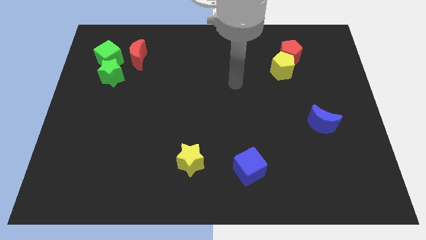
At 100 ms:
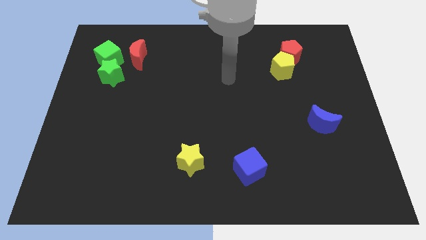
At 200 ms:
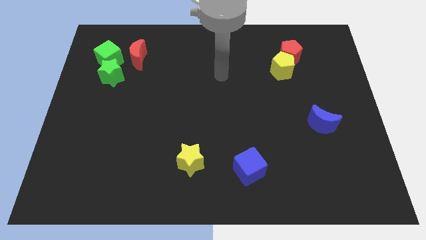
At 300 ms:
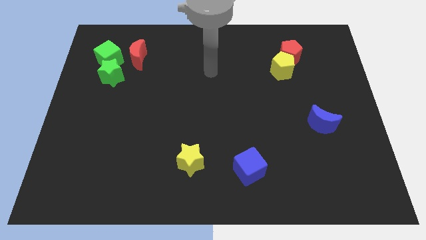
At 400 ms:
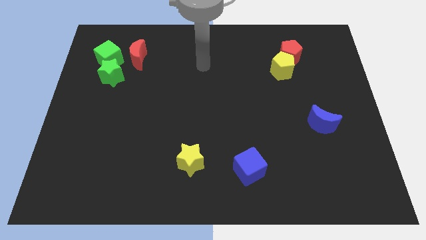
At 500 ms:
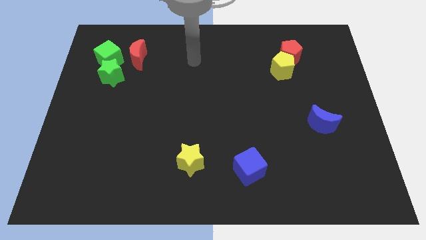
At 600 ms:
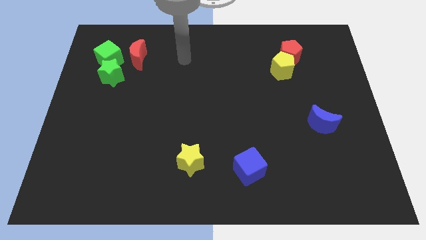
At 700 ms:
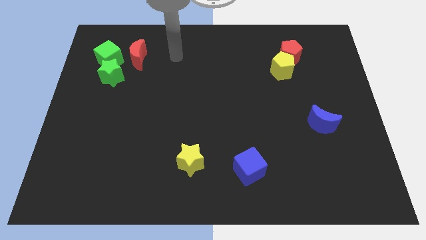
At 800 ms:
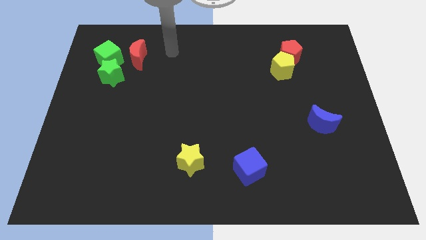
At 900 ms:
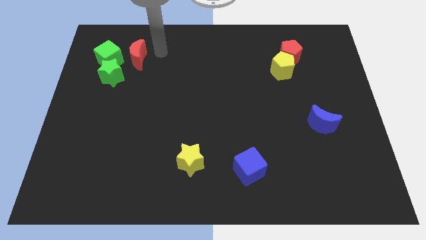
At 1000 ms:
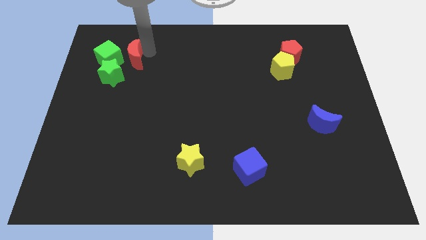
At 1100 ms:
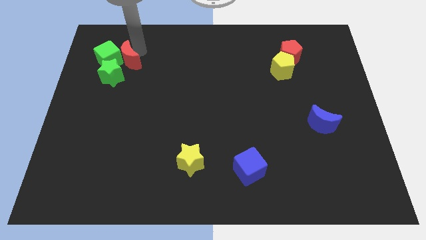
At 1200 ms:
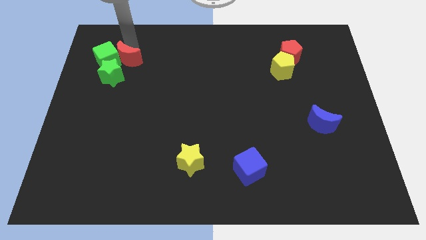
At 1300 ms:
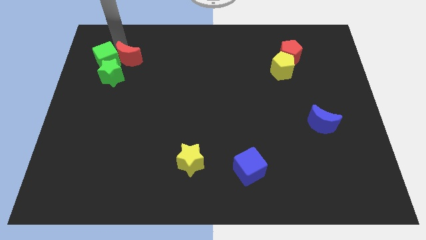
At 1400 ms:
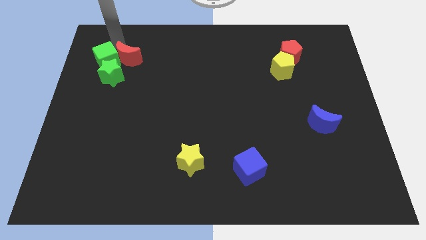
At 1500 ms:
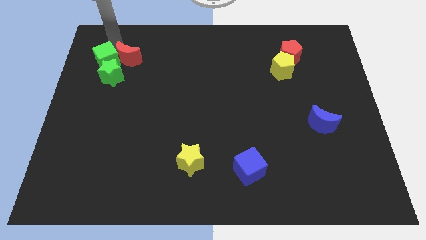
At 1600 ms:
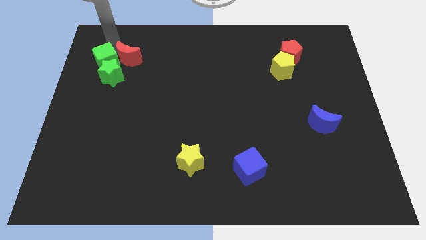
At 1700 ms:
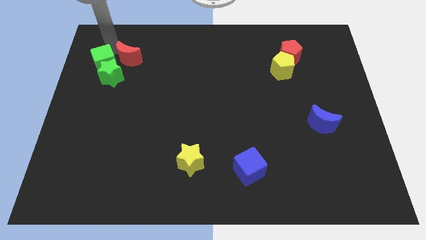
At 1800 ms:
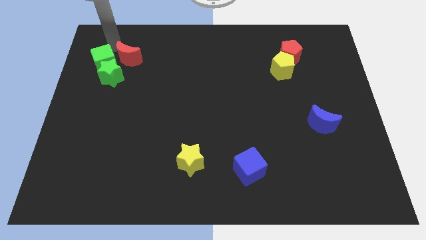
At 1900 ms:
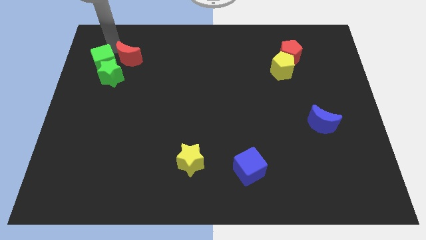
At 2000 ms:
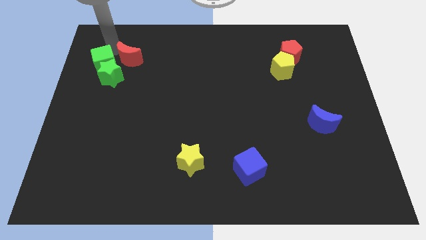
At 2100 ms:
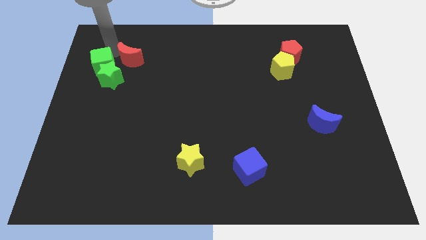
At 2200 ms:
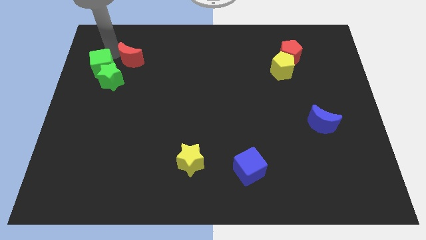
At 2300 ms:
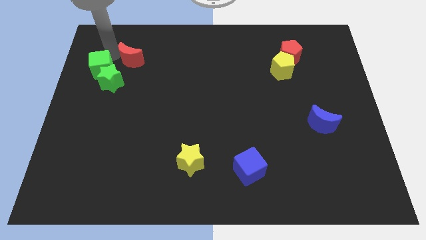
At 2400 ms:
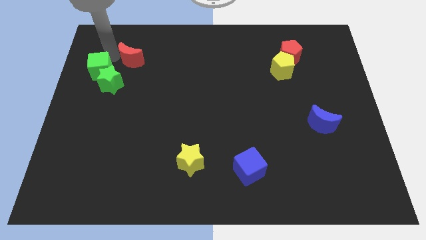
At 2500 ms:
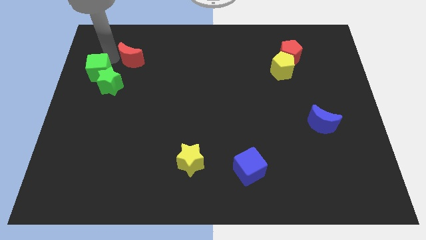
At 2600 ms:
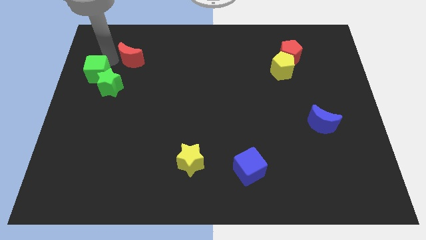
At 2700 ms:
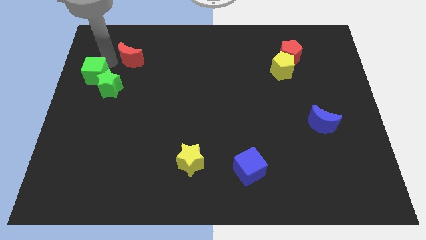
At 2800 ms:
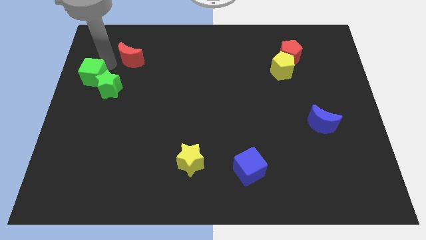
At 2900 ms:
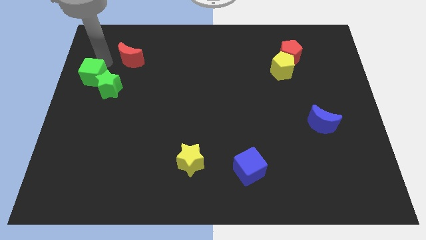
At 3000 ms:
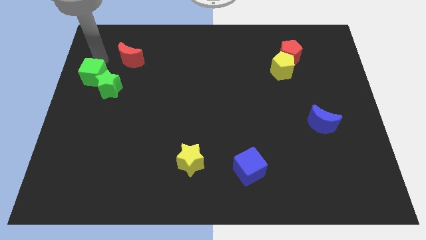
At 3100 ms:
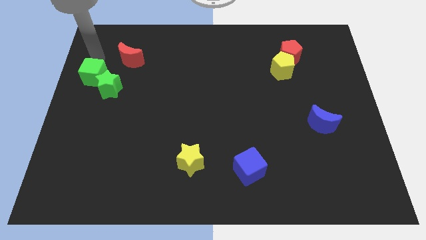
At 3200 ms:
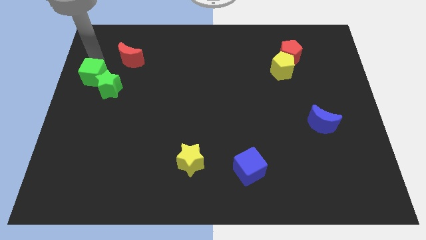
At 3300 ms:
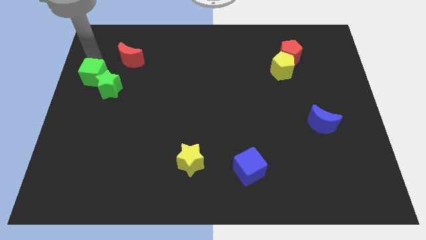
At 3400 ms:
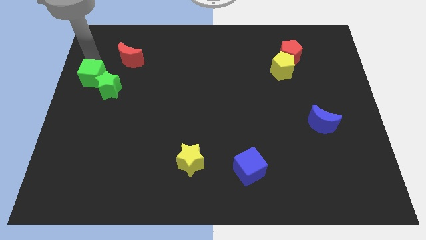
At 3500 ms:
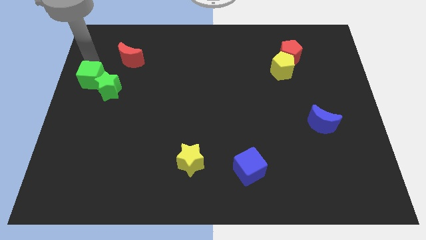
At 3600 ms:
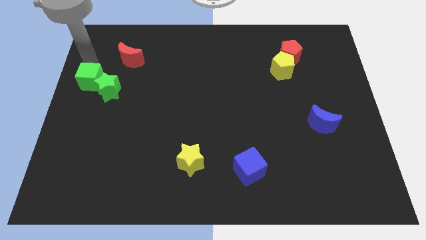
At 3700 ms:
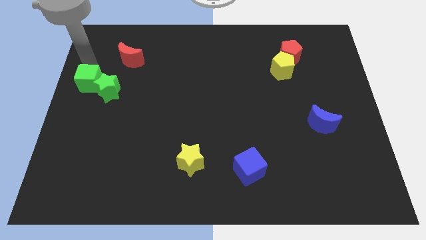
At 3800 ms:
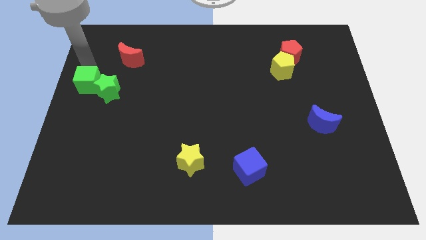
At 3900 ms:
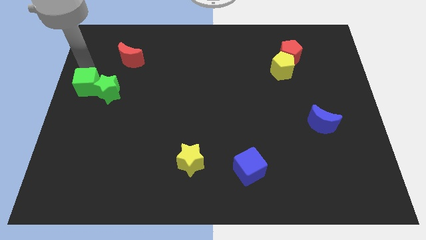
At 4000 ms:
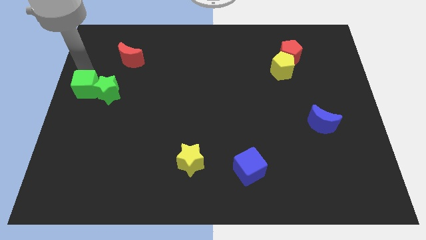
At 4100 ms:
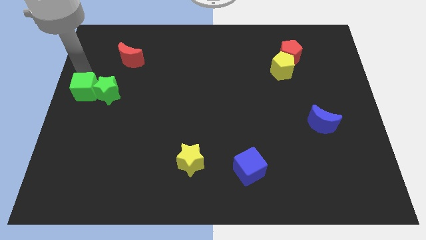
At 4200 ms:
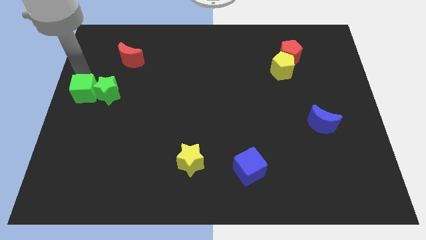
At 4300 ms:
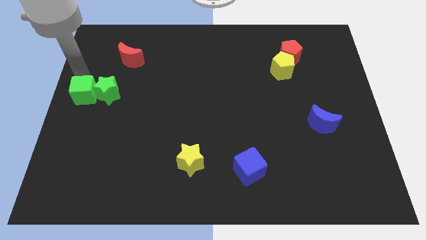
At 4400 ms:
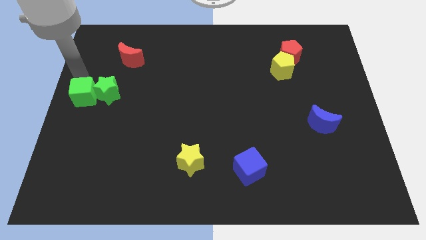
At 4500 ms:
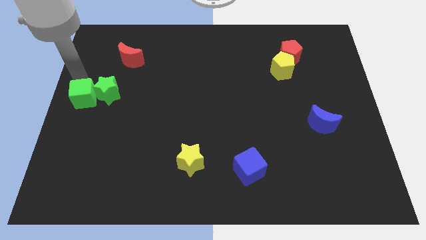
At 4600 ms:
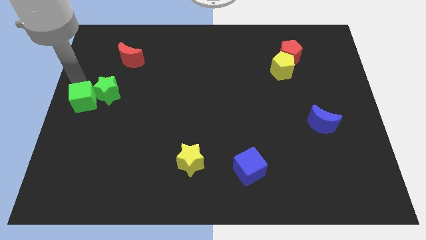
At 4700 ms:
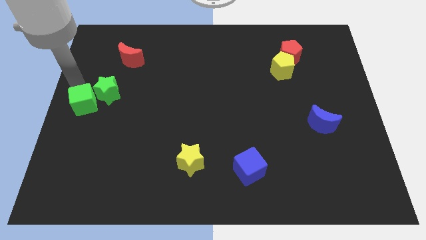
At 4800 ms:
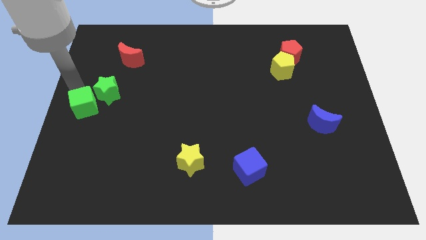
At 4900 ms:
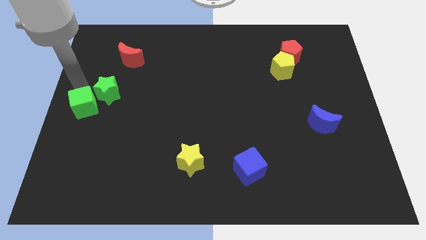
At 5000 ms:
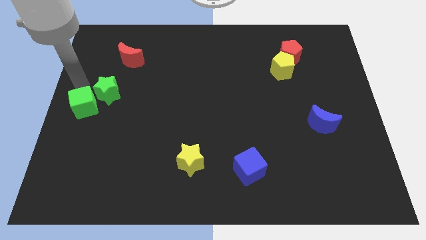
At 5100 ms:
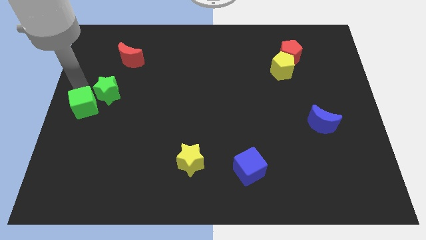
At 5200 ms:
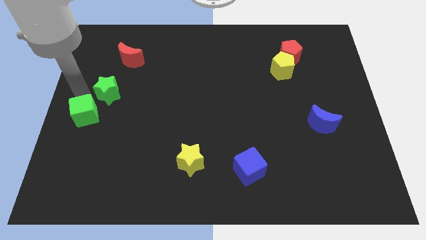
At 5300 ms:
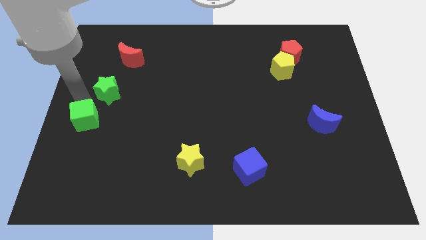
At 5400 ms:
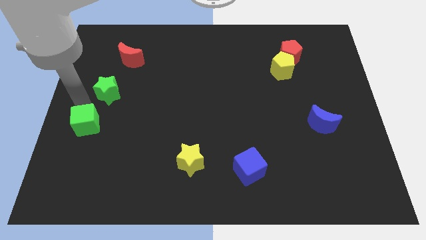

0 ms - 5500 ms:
slide the green cube down

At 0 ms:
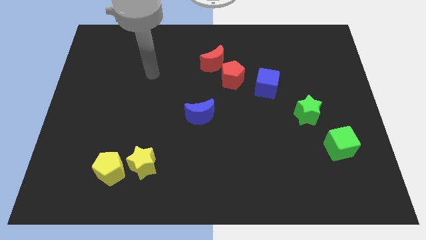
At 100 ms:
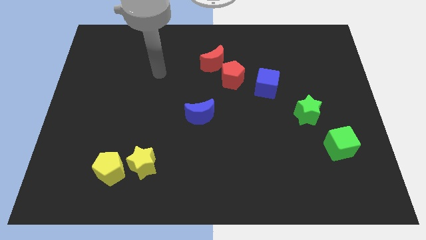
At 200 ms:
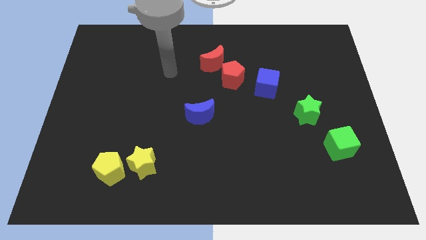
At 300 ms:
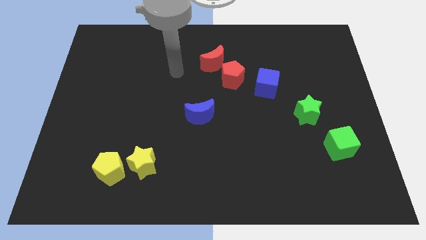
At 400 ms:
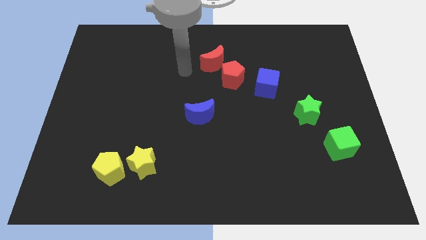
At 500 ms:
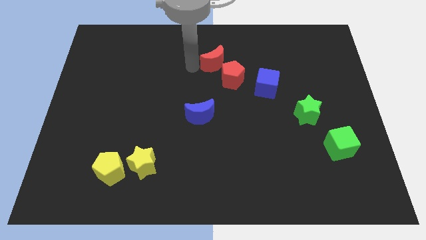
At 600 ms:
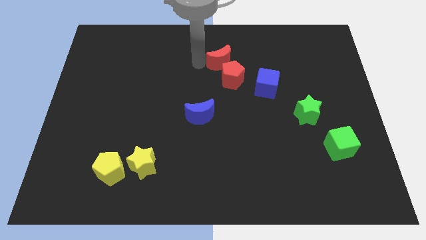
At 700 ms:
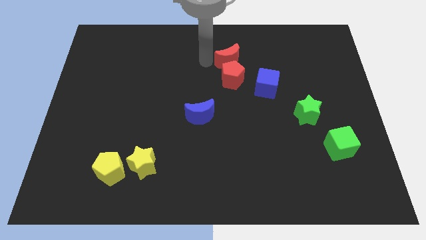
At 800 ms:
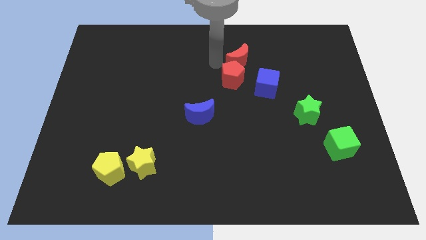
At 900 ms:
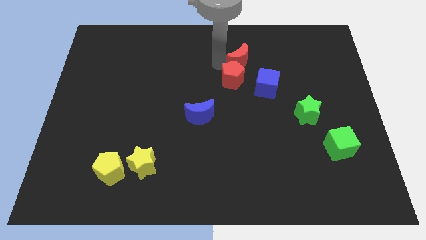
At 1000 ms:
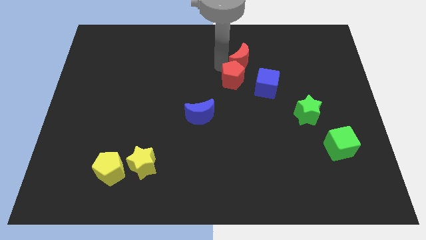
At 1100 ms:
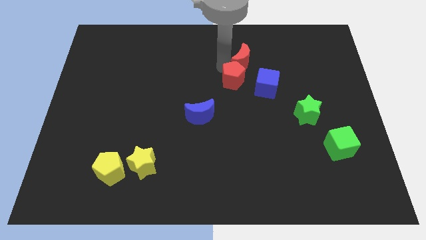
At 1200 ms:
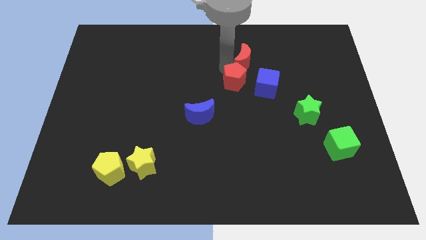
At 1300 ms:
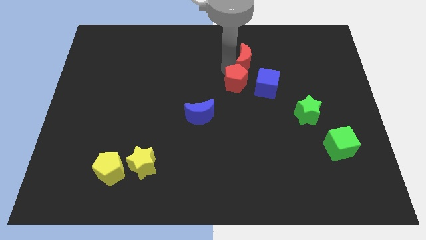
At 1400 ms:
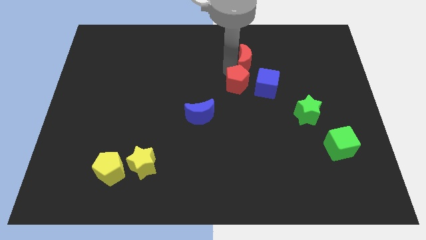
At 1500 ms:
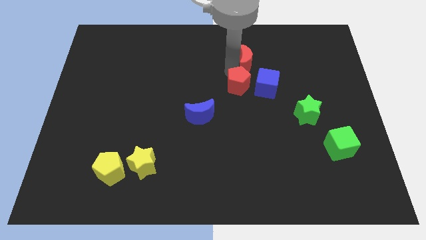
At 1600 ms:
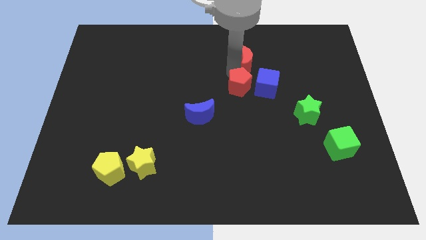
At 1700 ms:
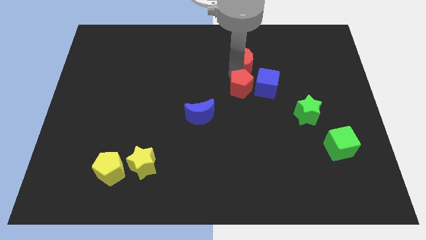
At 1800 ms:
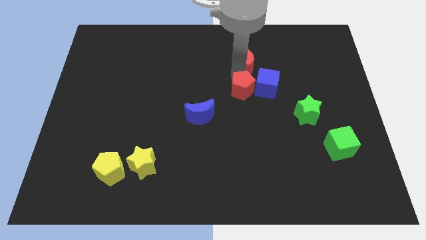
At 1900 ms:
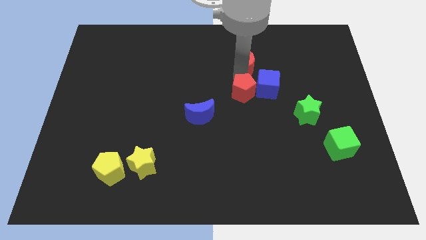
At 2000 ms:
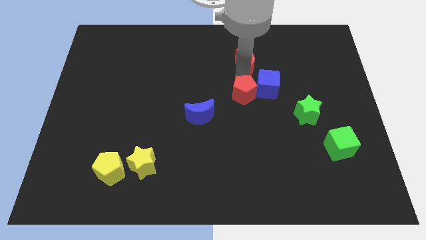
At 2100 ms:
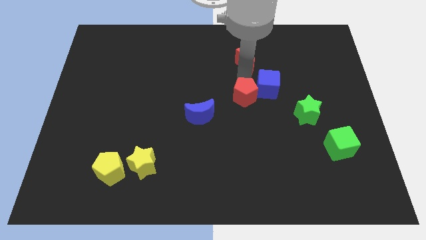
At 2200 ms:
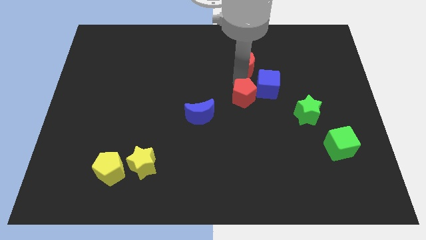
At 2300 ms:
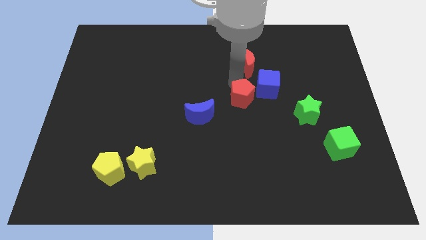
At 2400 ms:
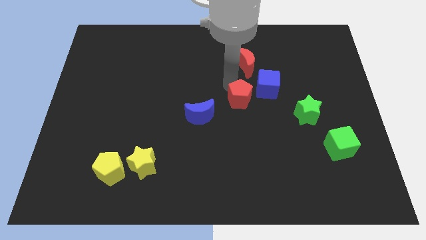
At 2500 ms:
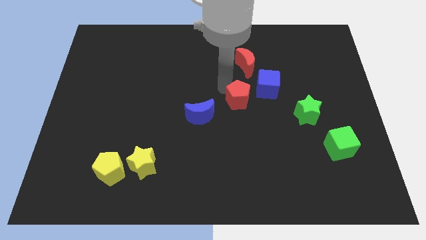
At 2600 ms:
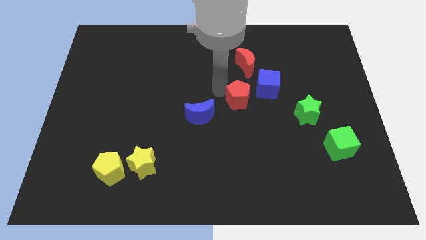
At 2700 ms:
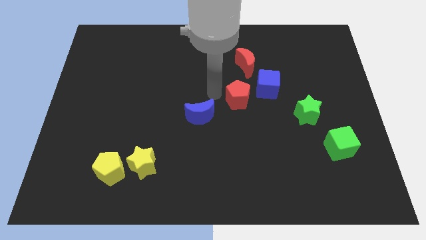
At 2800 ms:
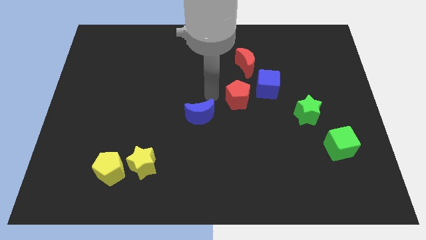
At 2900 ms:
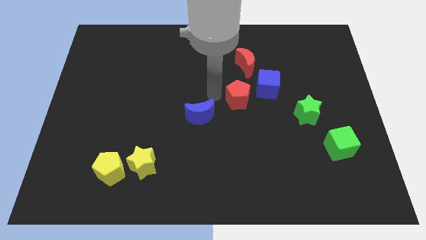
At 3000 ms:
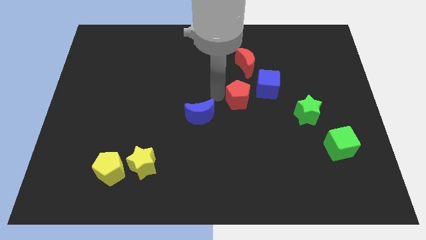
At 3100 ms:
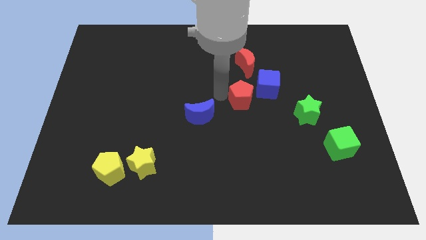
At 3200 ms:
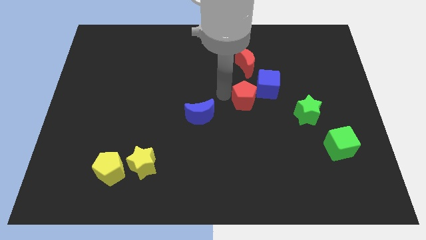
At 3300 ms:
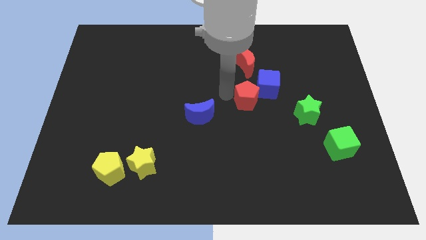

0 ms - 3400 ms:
move the red pentagon a little down and then to the right
